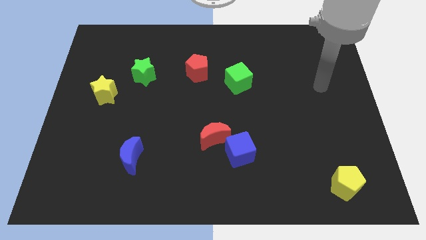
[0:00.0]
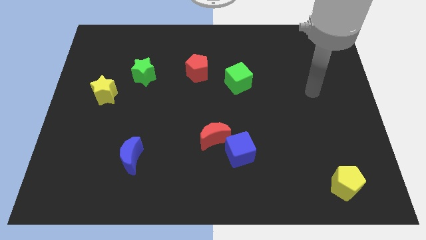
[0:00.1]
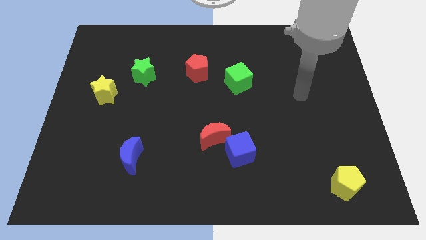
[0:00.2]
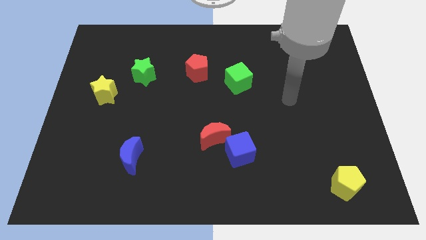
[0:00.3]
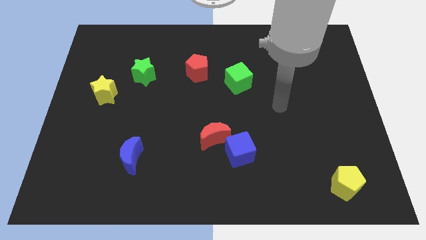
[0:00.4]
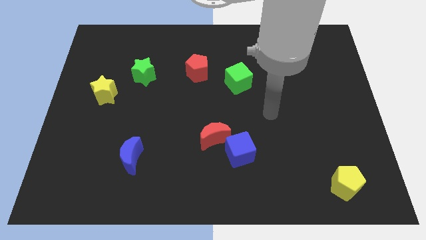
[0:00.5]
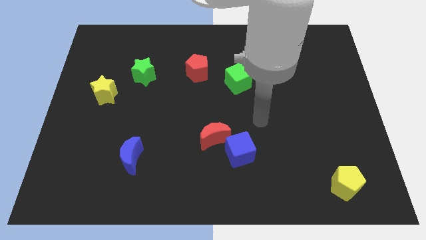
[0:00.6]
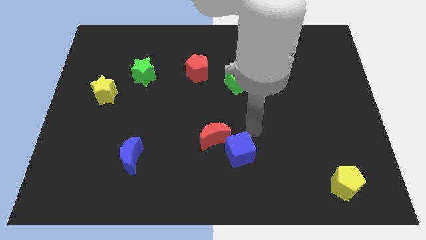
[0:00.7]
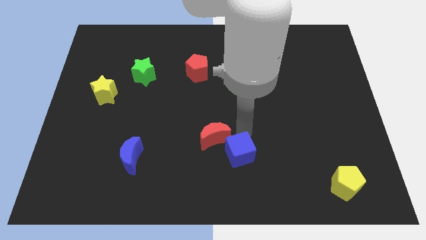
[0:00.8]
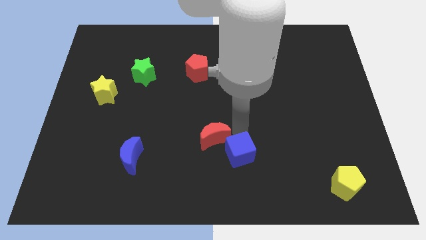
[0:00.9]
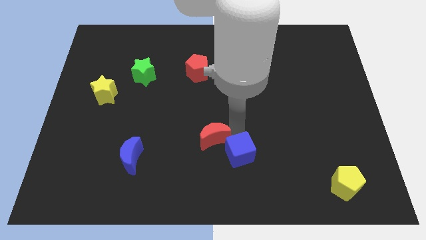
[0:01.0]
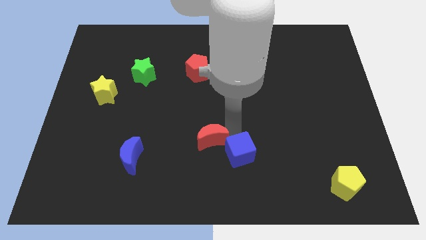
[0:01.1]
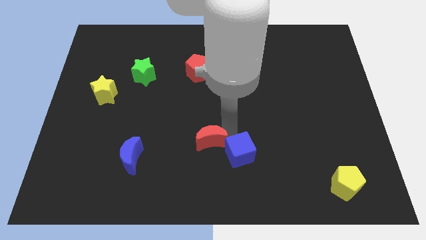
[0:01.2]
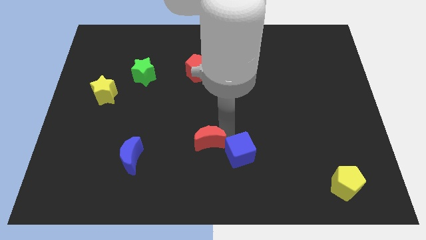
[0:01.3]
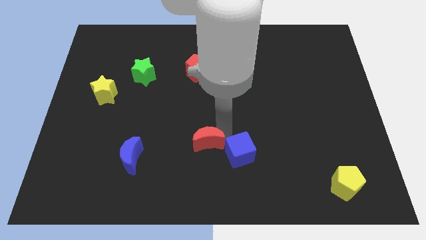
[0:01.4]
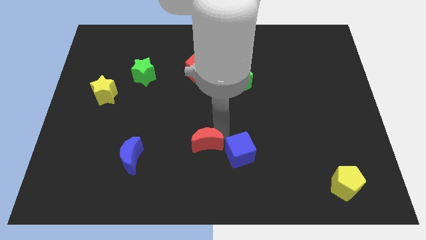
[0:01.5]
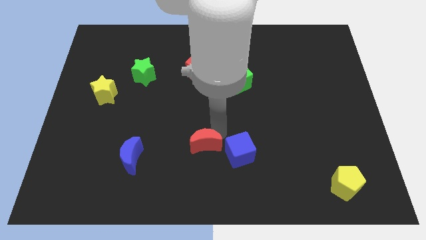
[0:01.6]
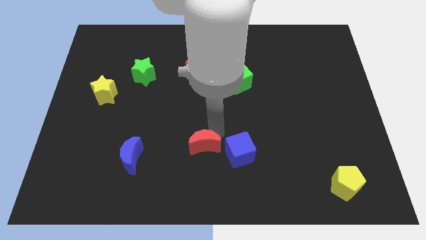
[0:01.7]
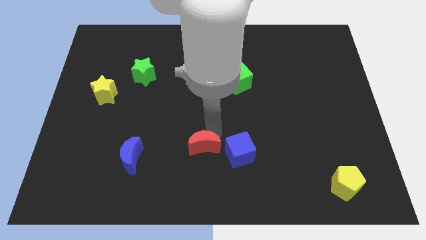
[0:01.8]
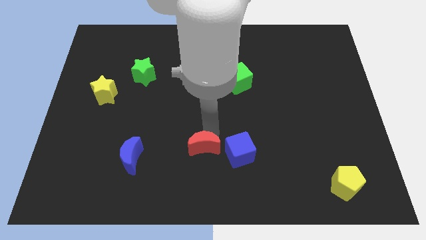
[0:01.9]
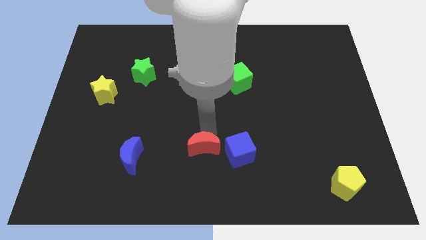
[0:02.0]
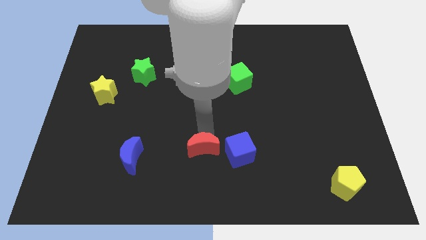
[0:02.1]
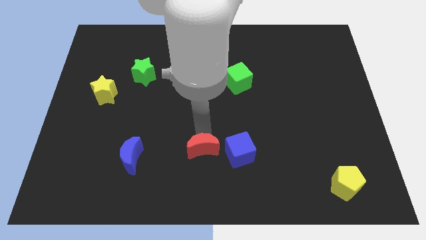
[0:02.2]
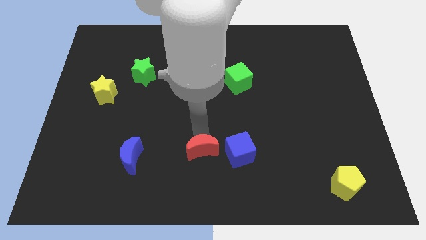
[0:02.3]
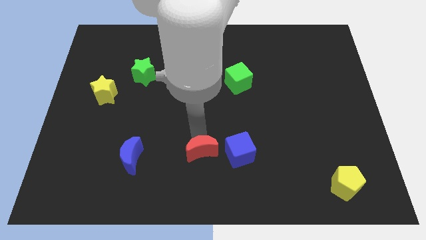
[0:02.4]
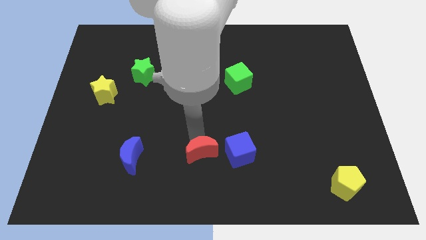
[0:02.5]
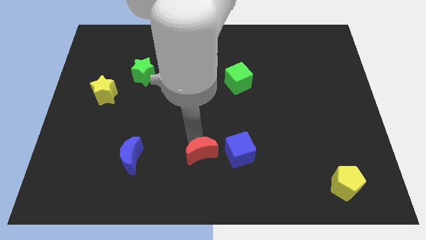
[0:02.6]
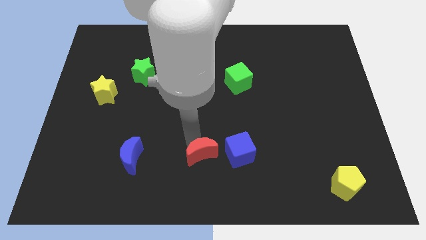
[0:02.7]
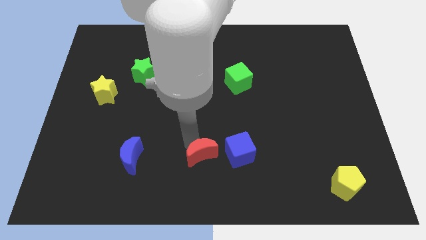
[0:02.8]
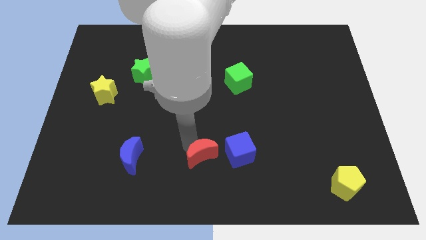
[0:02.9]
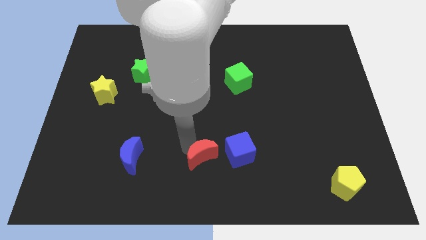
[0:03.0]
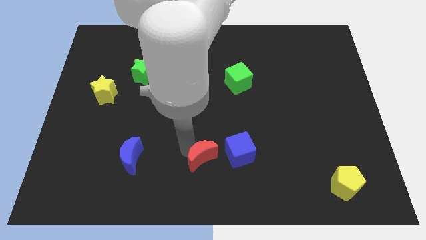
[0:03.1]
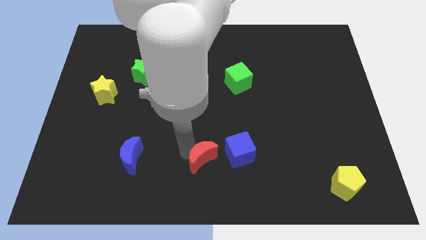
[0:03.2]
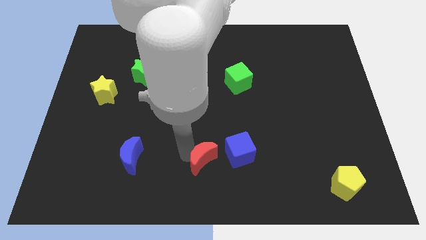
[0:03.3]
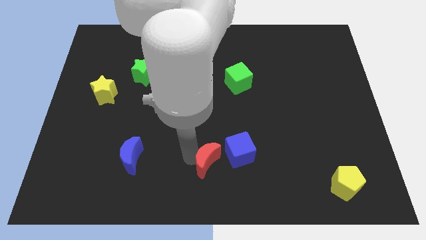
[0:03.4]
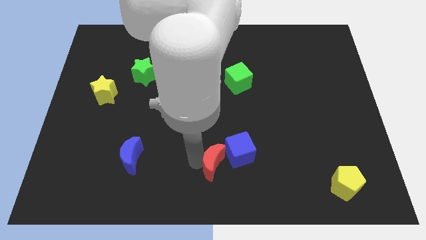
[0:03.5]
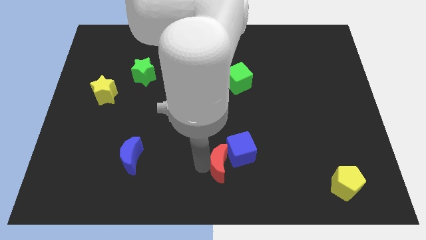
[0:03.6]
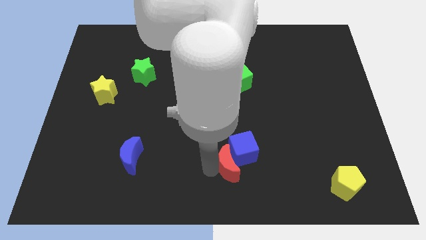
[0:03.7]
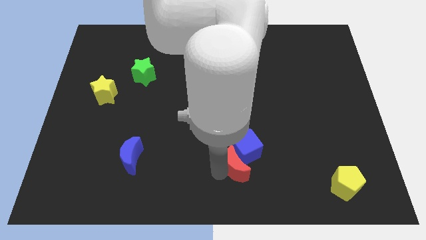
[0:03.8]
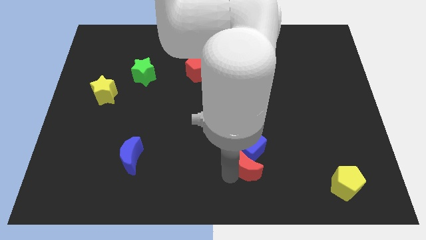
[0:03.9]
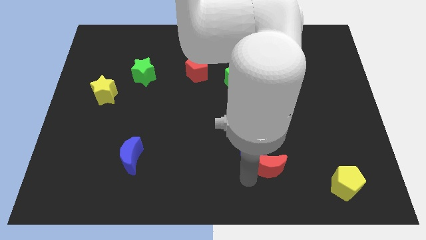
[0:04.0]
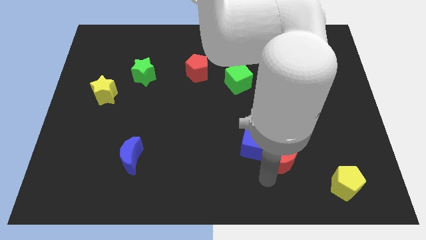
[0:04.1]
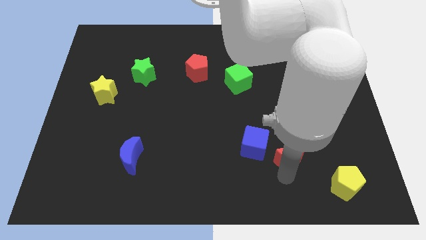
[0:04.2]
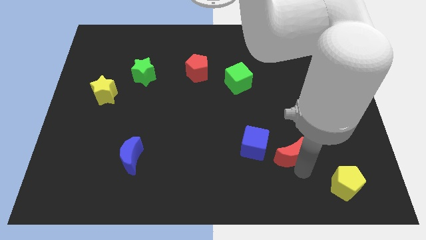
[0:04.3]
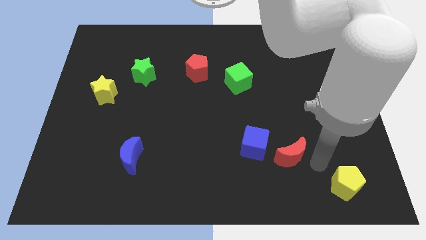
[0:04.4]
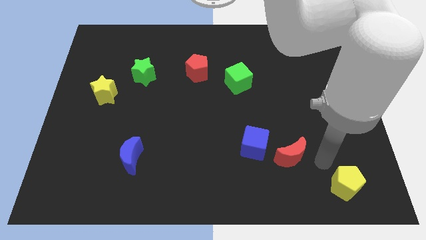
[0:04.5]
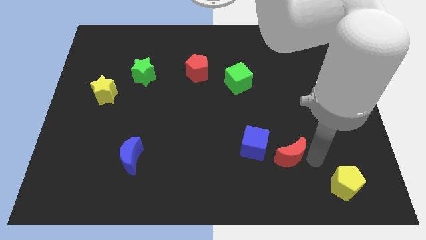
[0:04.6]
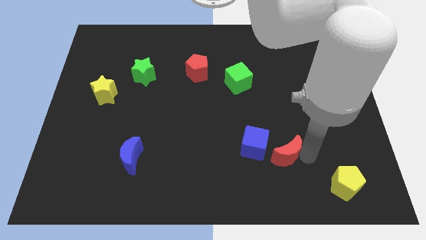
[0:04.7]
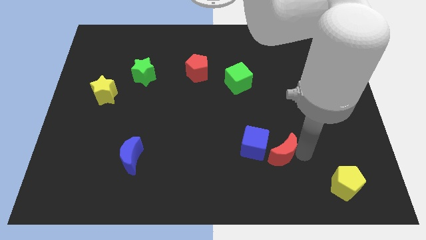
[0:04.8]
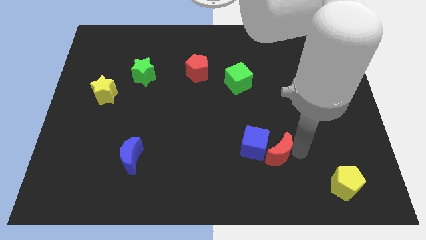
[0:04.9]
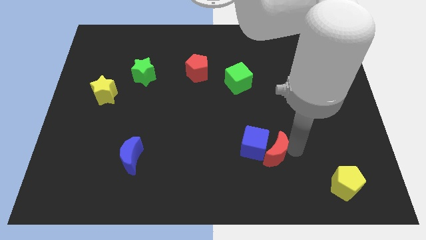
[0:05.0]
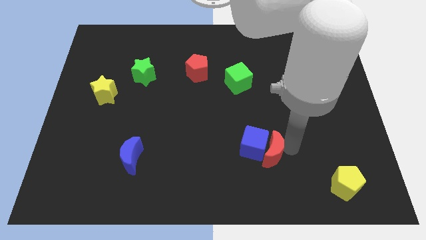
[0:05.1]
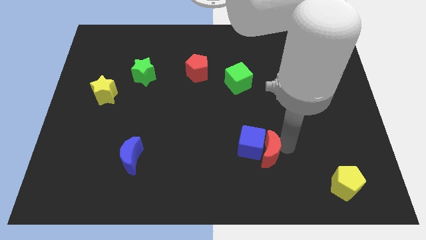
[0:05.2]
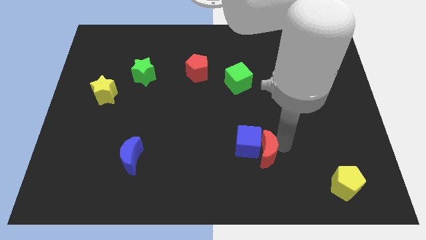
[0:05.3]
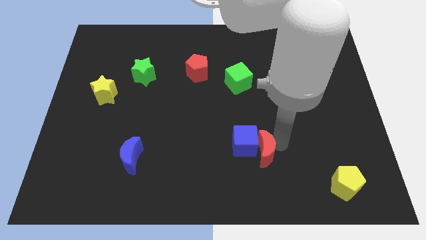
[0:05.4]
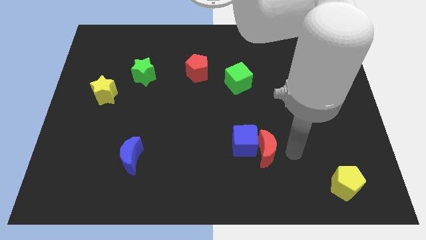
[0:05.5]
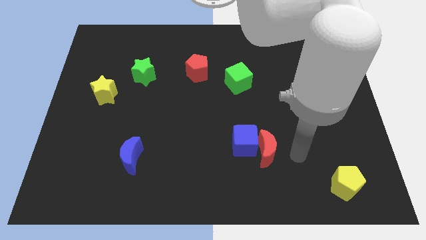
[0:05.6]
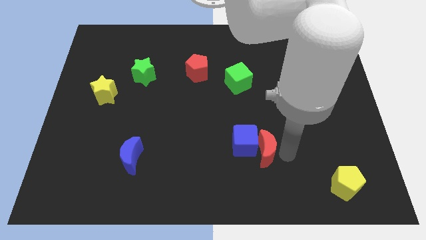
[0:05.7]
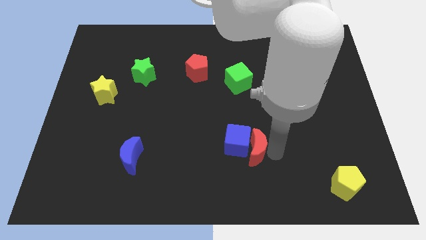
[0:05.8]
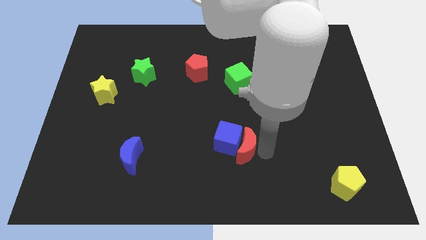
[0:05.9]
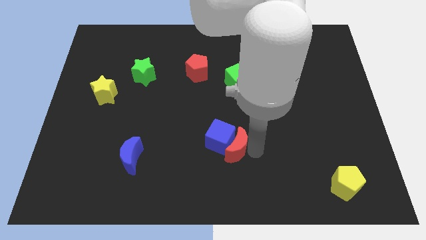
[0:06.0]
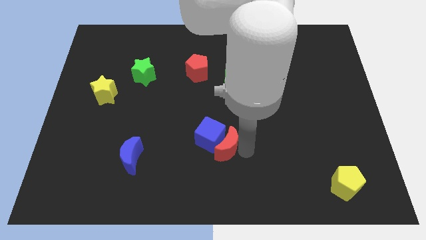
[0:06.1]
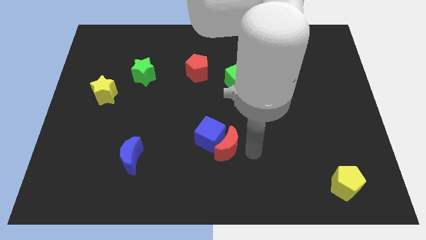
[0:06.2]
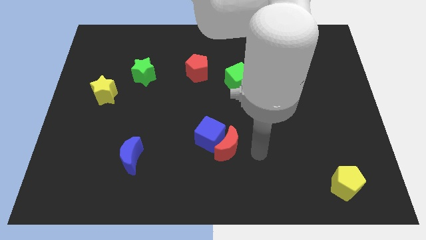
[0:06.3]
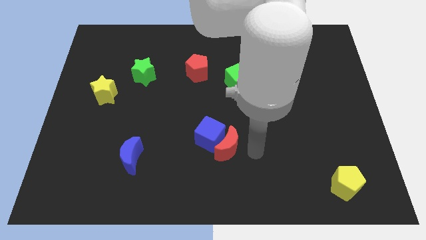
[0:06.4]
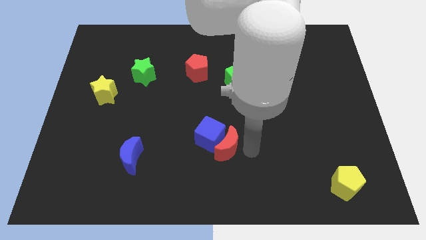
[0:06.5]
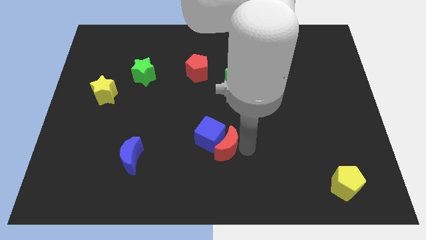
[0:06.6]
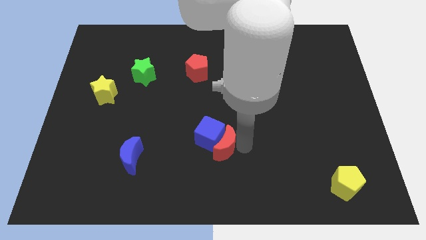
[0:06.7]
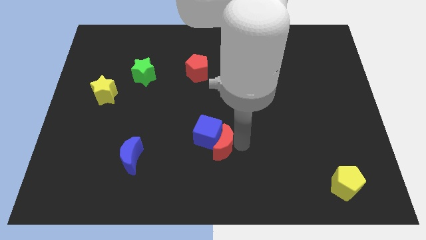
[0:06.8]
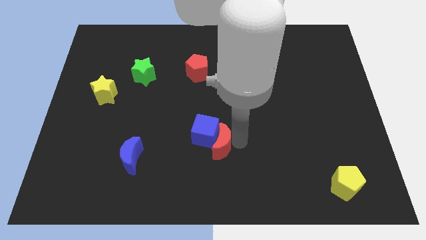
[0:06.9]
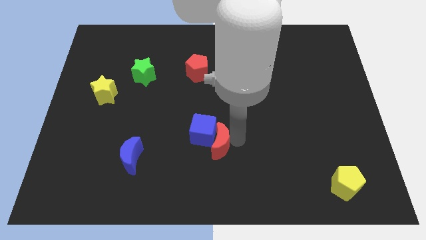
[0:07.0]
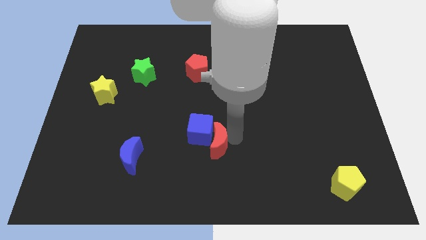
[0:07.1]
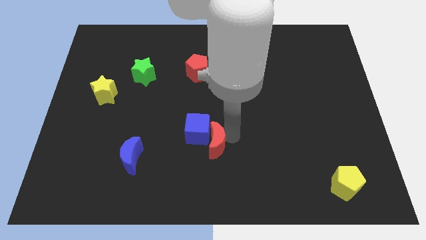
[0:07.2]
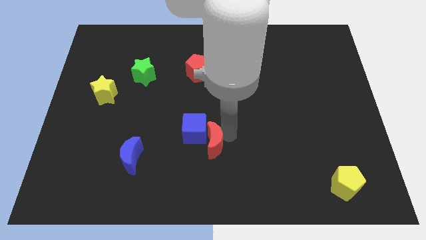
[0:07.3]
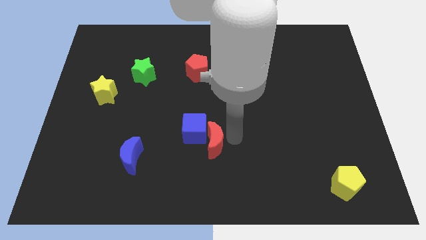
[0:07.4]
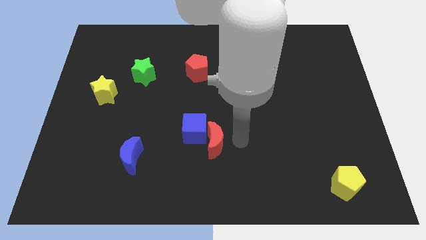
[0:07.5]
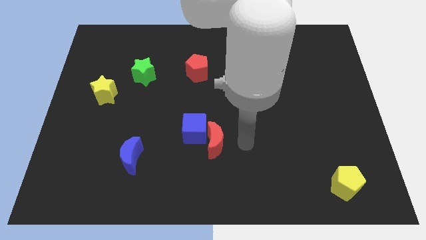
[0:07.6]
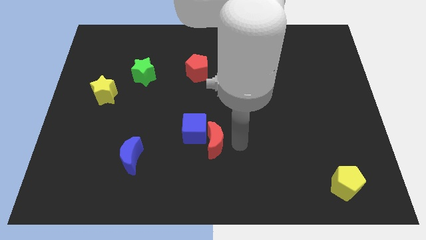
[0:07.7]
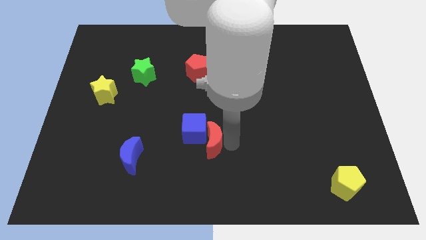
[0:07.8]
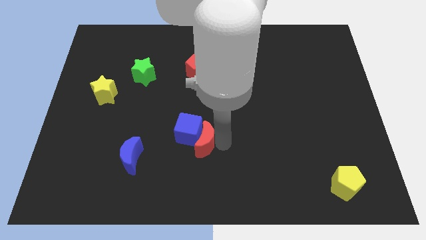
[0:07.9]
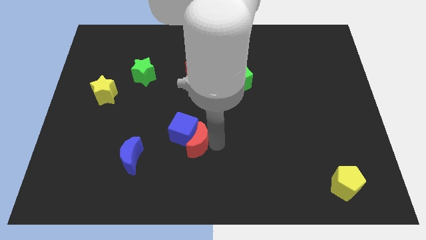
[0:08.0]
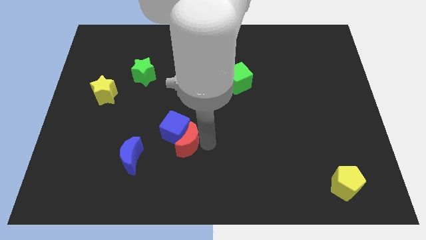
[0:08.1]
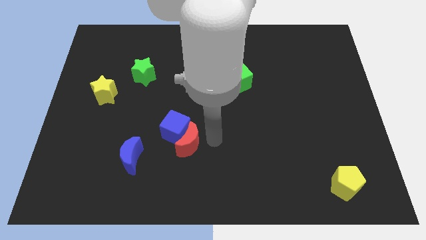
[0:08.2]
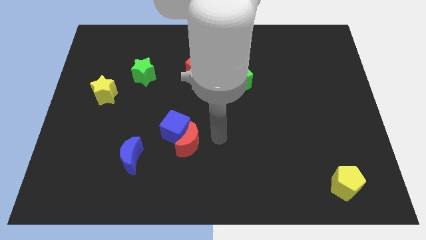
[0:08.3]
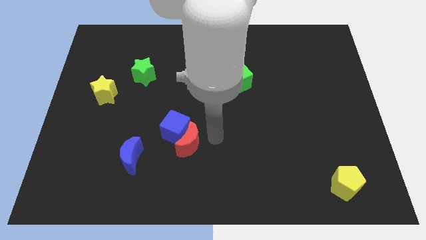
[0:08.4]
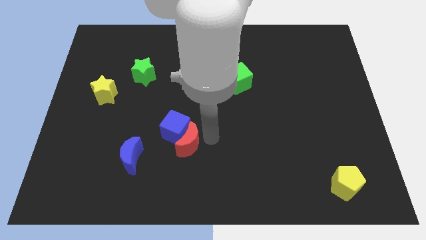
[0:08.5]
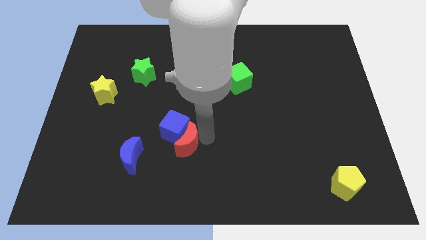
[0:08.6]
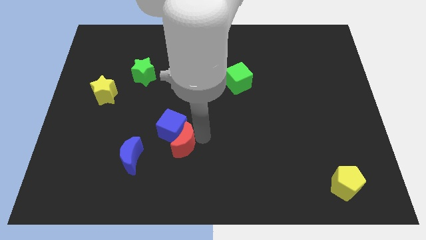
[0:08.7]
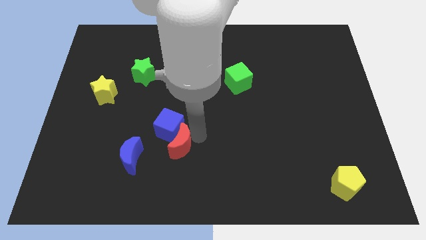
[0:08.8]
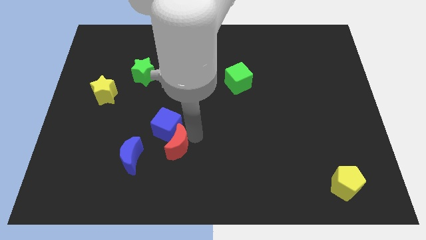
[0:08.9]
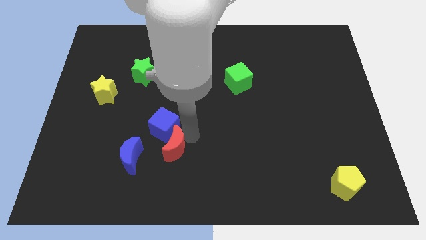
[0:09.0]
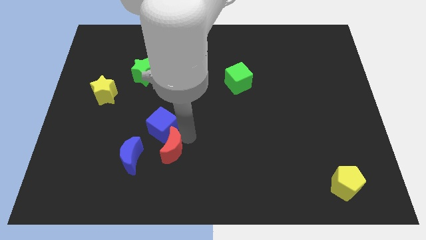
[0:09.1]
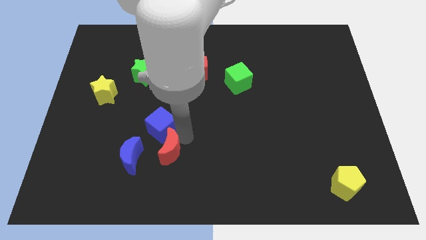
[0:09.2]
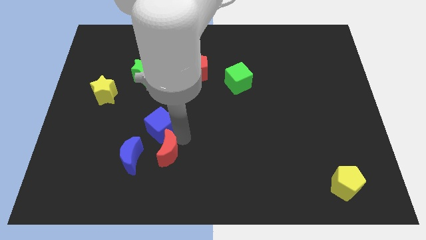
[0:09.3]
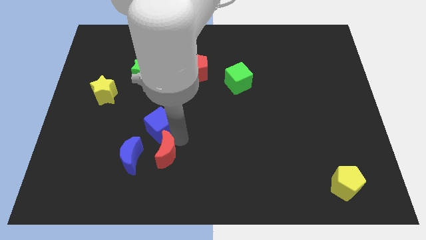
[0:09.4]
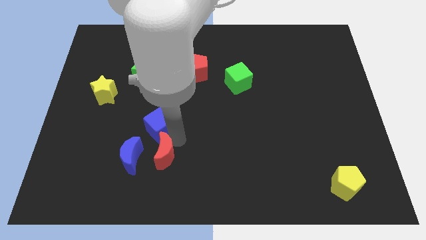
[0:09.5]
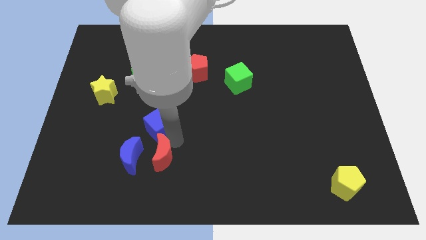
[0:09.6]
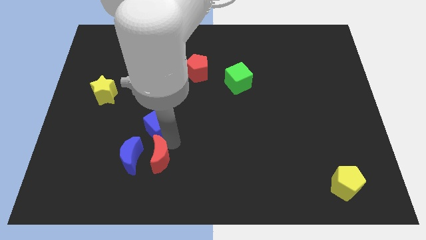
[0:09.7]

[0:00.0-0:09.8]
push the red moon close to the blue moon
